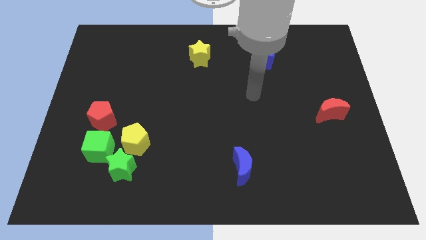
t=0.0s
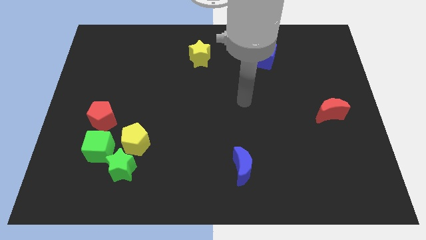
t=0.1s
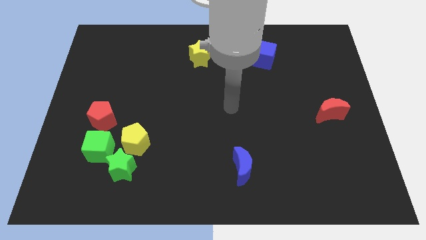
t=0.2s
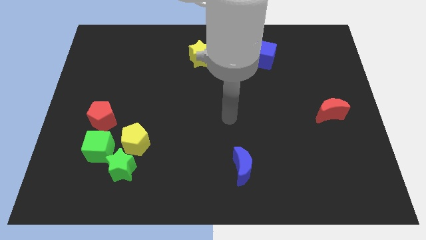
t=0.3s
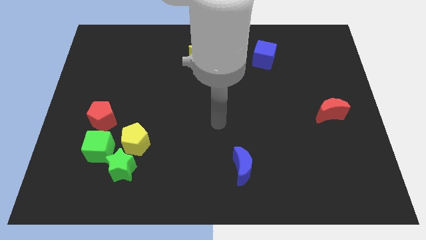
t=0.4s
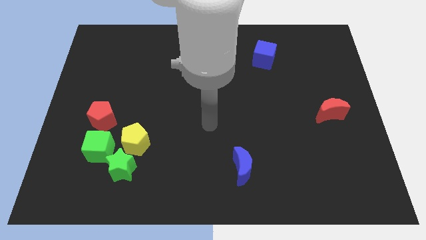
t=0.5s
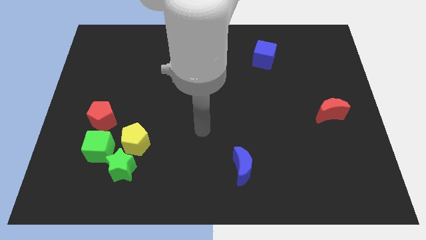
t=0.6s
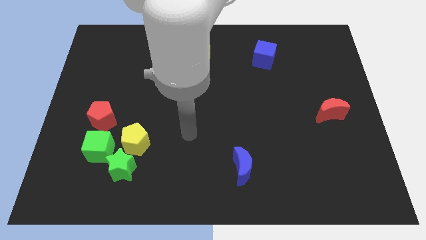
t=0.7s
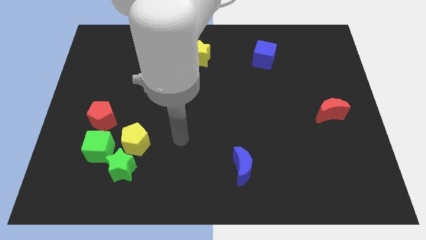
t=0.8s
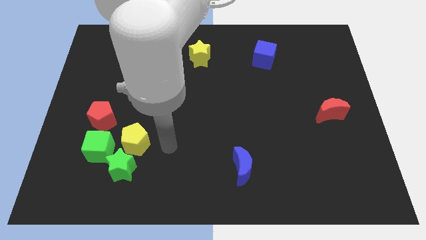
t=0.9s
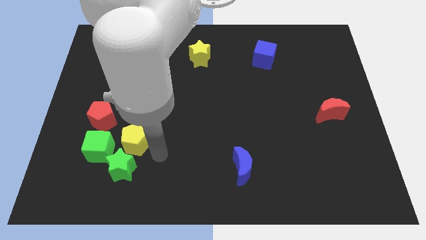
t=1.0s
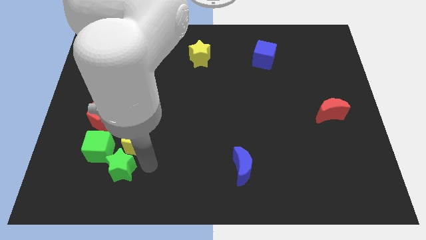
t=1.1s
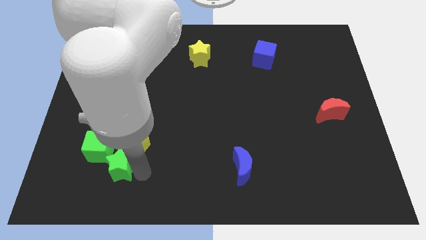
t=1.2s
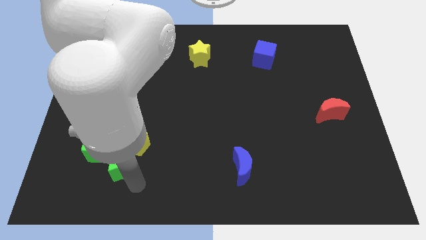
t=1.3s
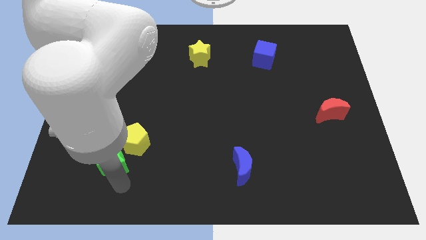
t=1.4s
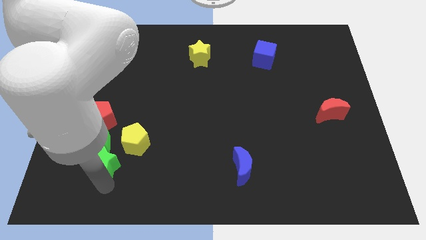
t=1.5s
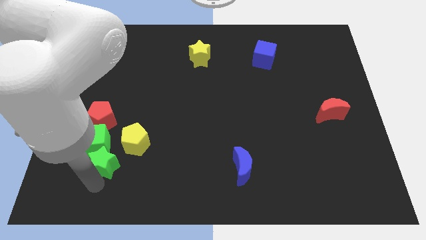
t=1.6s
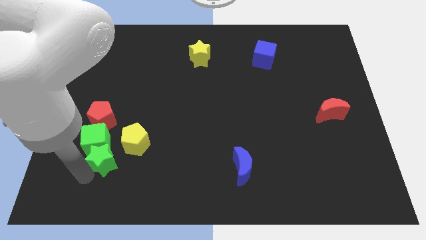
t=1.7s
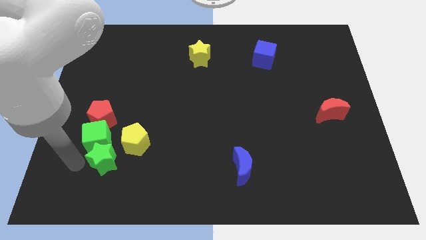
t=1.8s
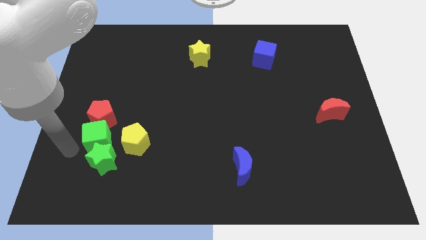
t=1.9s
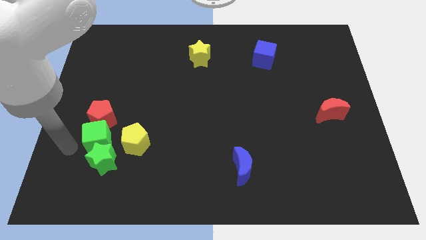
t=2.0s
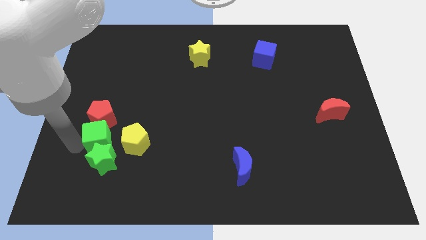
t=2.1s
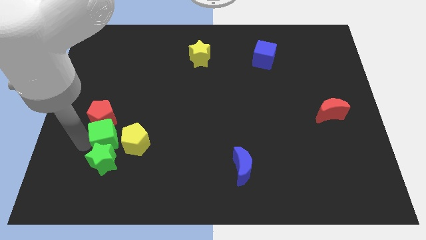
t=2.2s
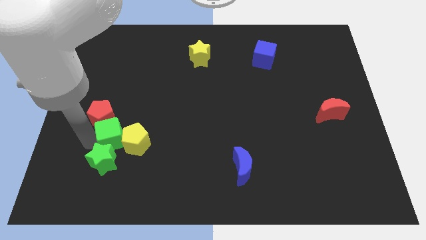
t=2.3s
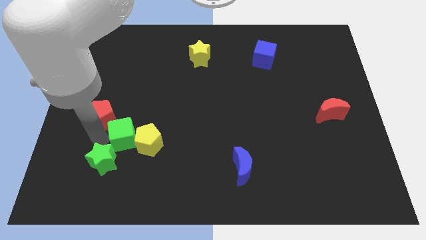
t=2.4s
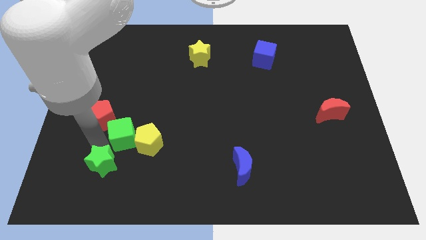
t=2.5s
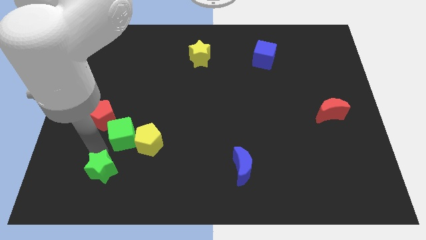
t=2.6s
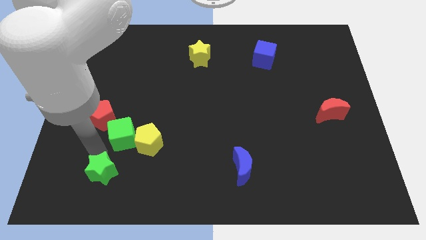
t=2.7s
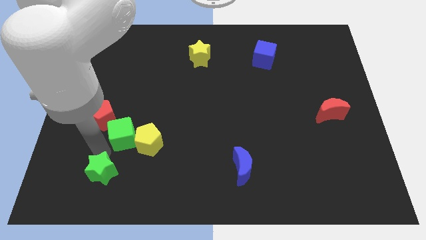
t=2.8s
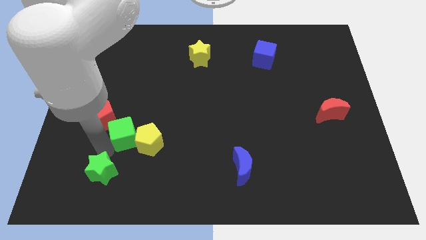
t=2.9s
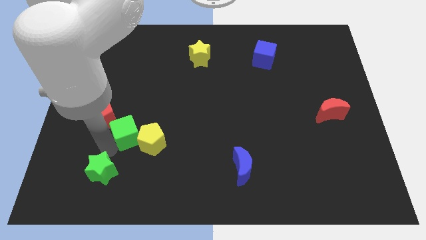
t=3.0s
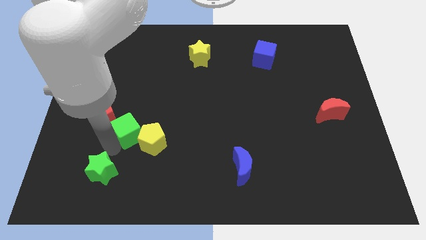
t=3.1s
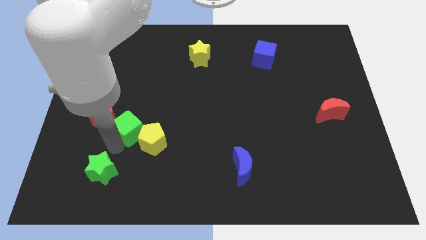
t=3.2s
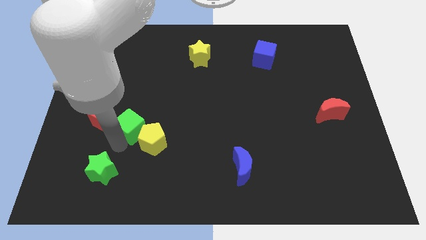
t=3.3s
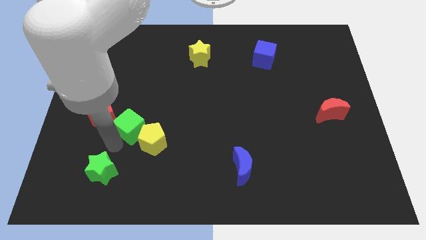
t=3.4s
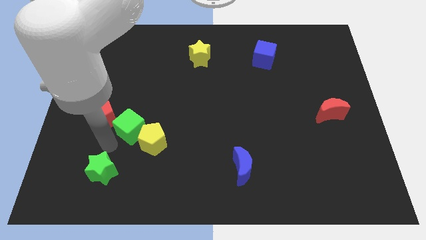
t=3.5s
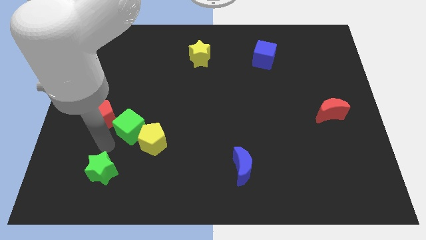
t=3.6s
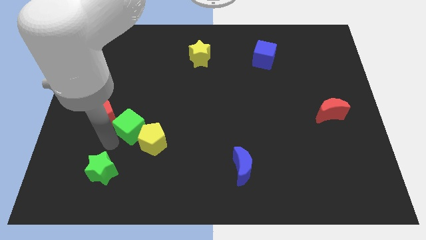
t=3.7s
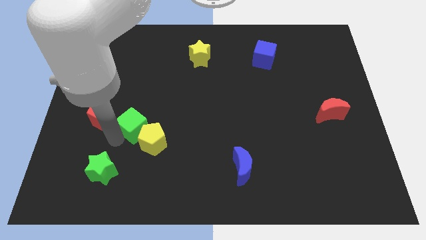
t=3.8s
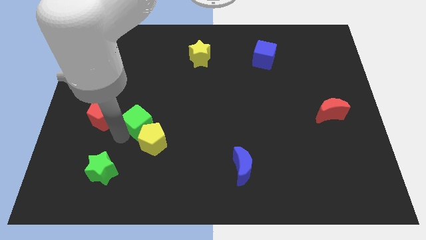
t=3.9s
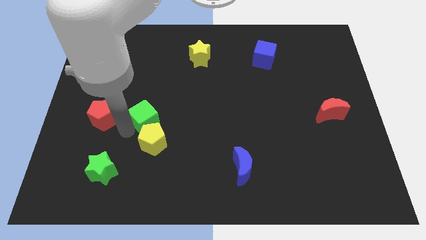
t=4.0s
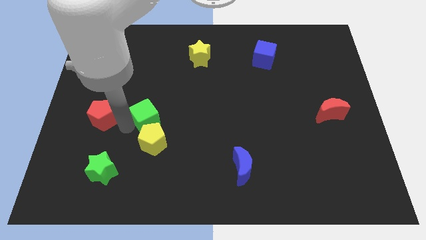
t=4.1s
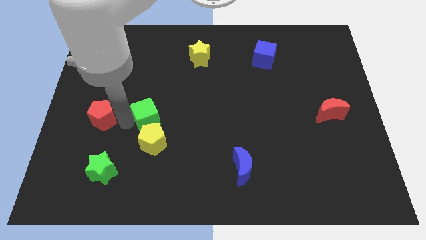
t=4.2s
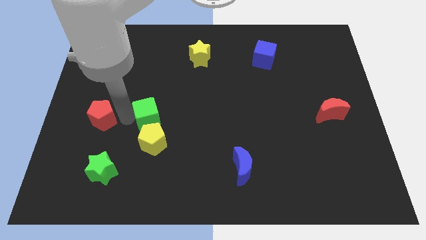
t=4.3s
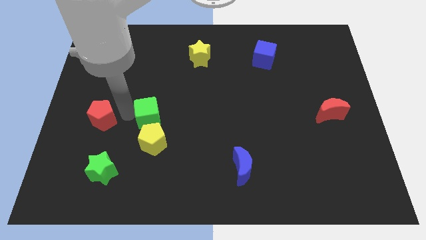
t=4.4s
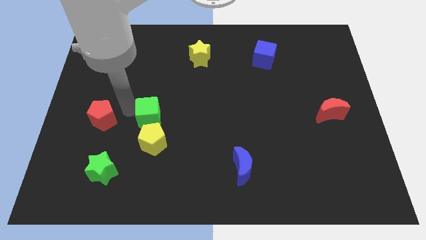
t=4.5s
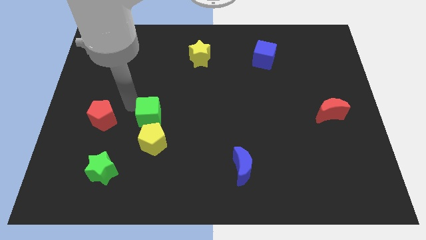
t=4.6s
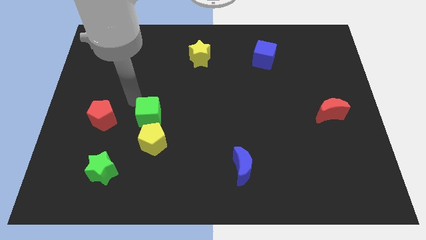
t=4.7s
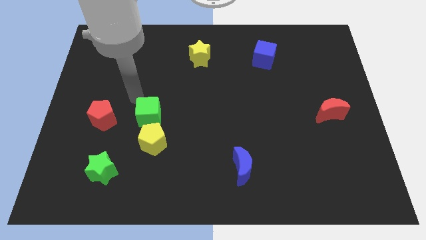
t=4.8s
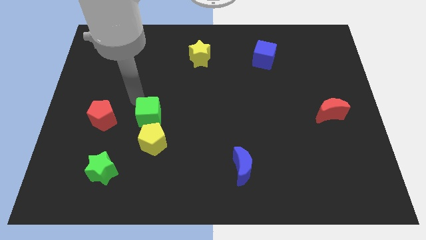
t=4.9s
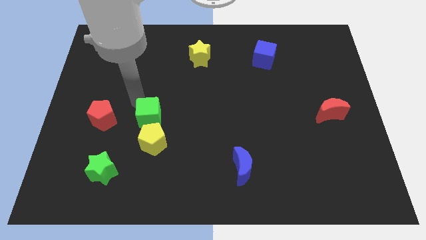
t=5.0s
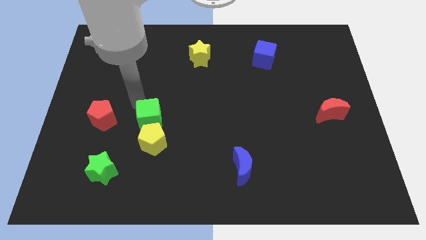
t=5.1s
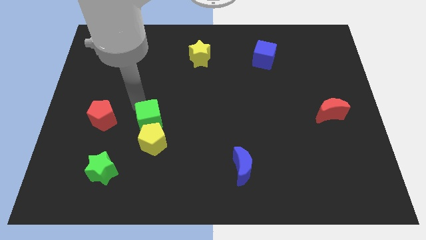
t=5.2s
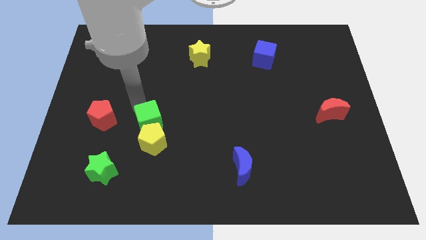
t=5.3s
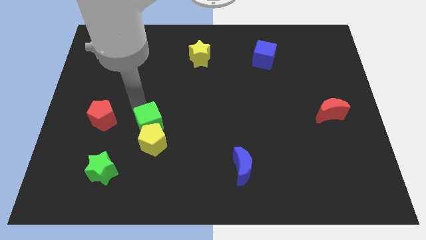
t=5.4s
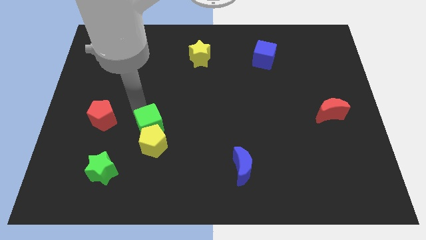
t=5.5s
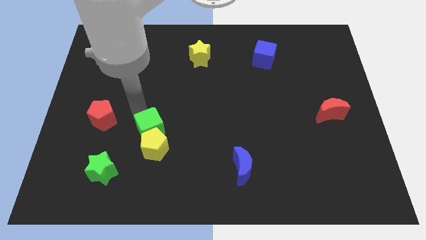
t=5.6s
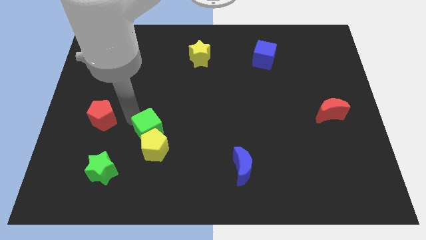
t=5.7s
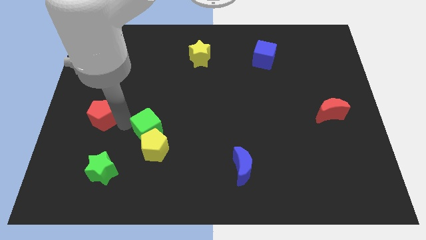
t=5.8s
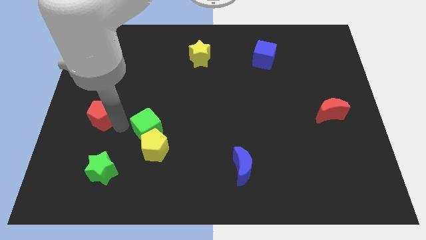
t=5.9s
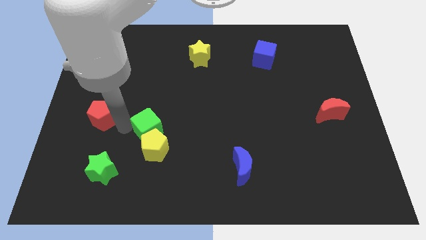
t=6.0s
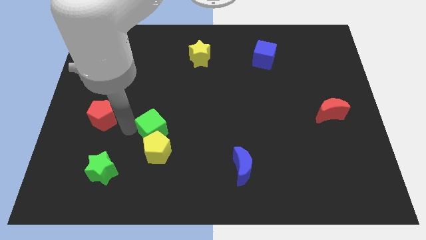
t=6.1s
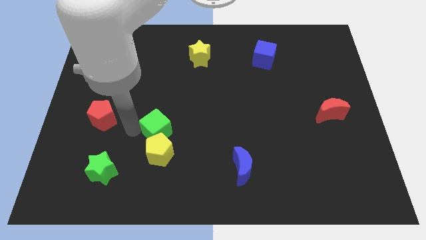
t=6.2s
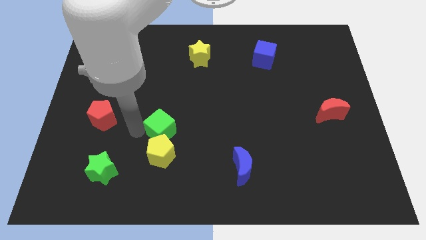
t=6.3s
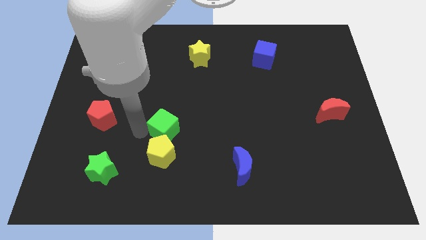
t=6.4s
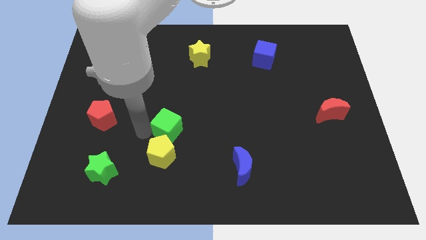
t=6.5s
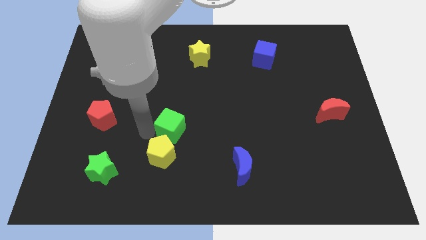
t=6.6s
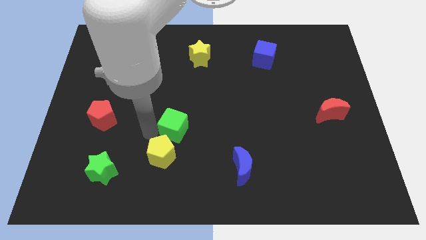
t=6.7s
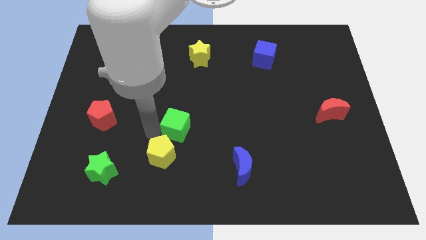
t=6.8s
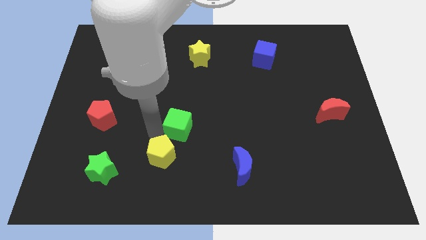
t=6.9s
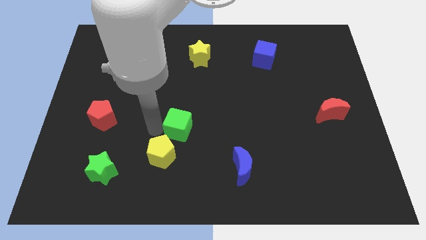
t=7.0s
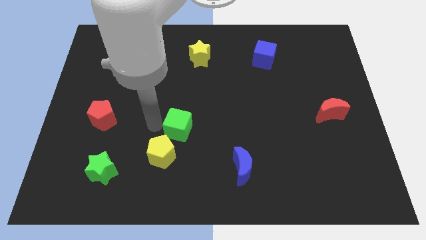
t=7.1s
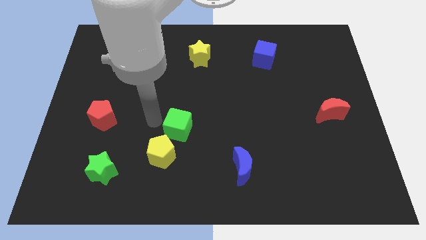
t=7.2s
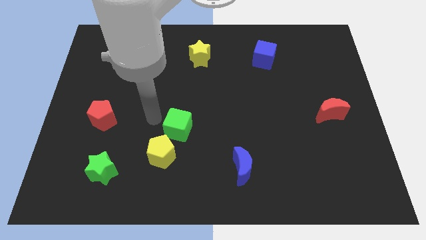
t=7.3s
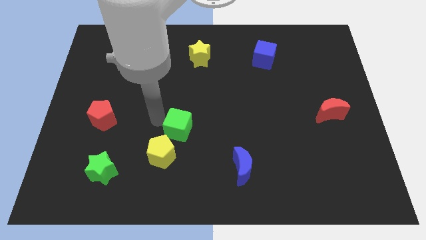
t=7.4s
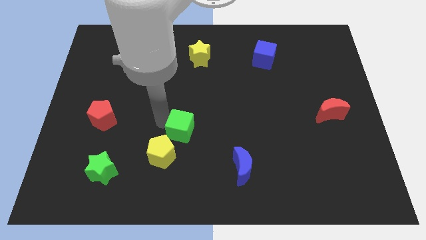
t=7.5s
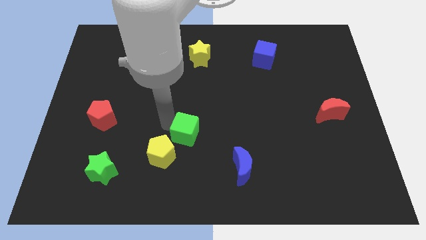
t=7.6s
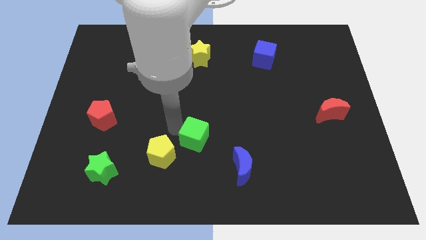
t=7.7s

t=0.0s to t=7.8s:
slide the green cube to the right

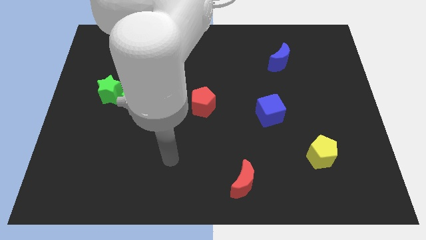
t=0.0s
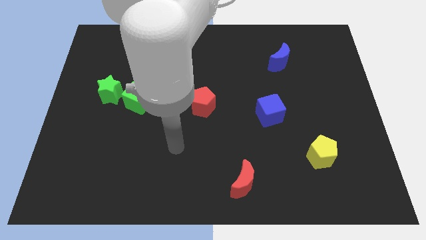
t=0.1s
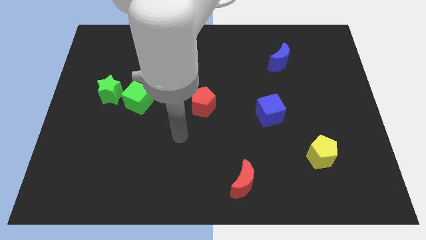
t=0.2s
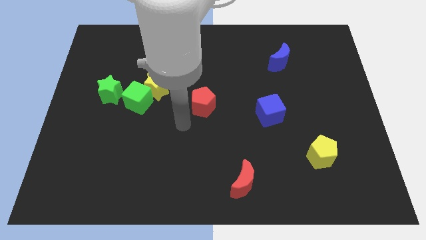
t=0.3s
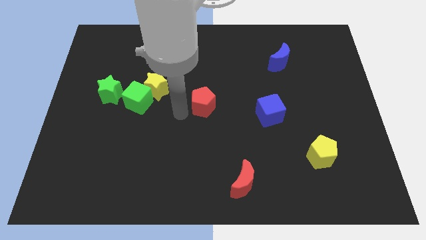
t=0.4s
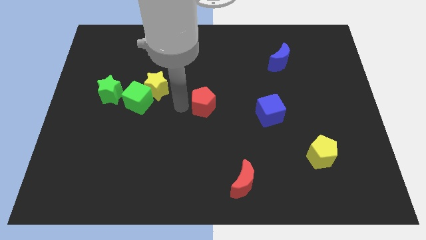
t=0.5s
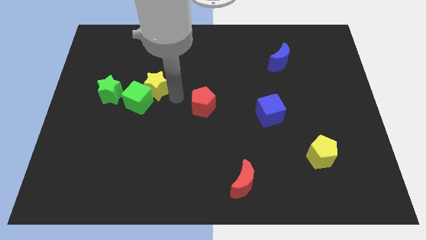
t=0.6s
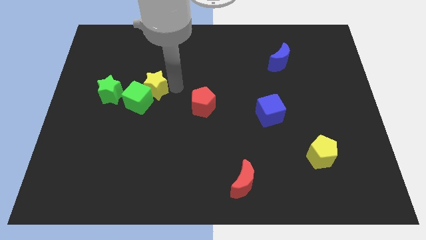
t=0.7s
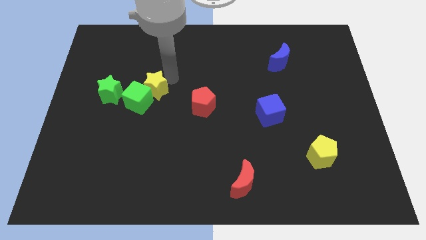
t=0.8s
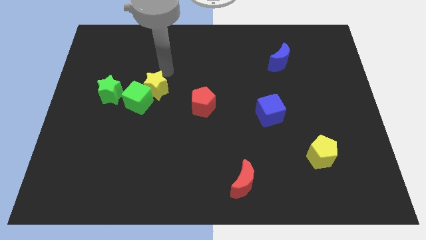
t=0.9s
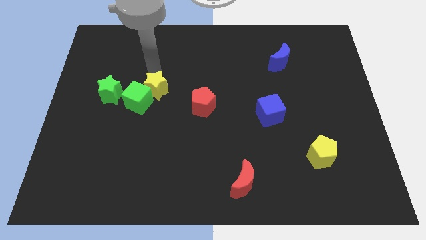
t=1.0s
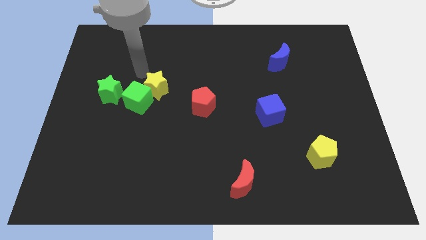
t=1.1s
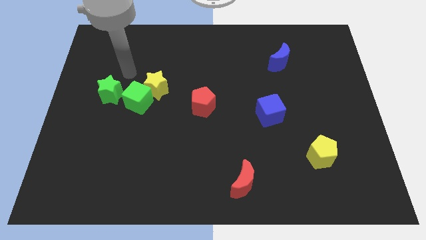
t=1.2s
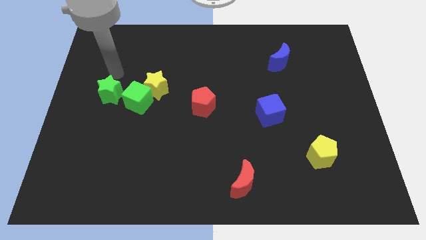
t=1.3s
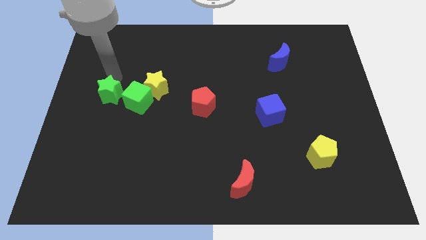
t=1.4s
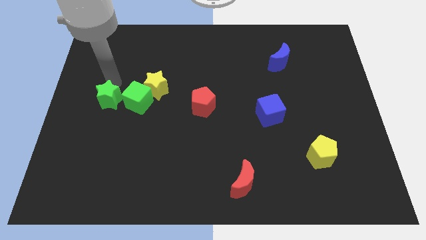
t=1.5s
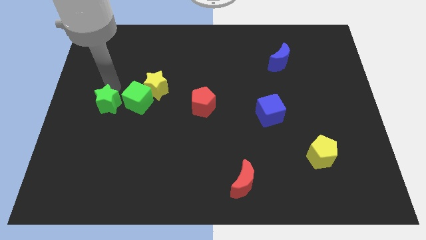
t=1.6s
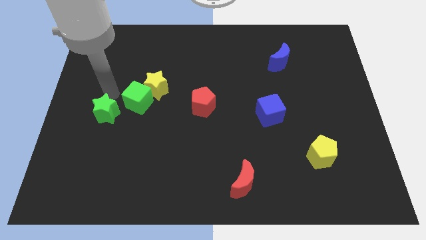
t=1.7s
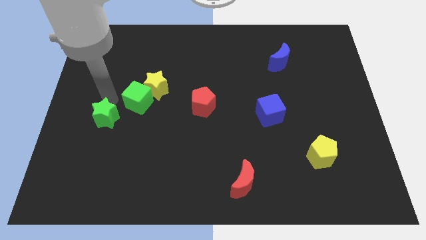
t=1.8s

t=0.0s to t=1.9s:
slightly slide the green star down
